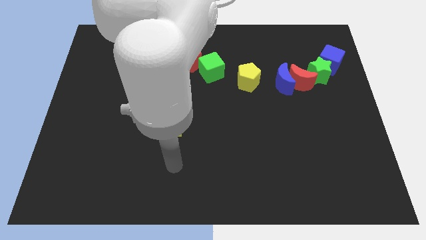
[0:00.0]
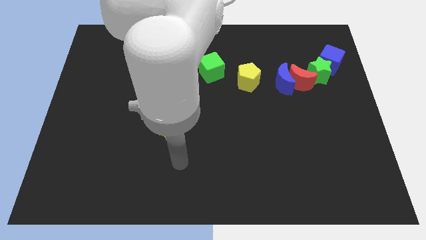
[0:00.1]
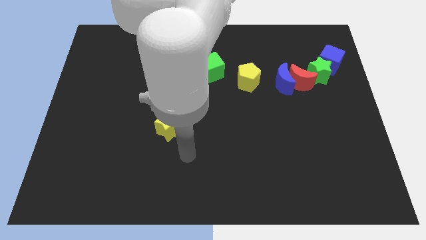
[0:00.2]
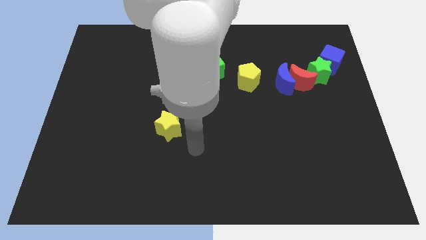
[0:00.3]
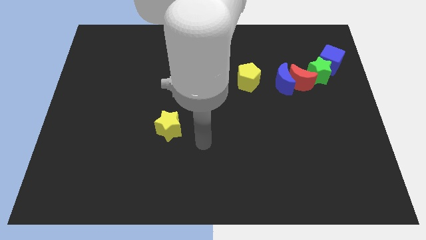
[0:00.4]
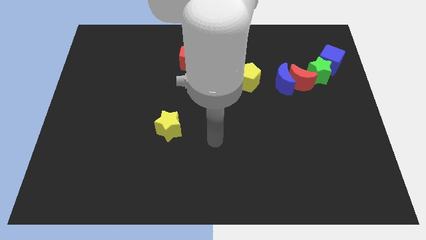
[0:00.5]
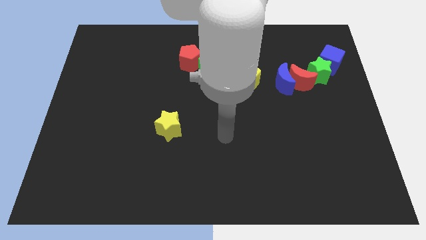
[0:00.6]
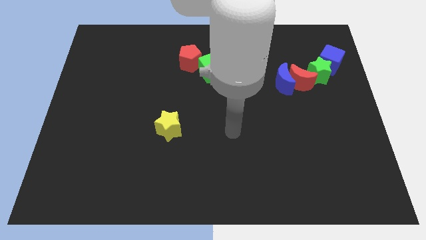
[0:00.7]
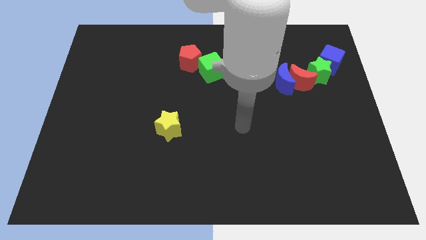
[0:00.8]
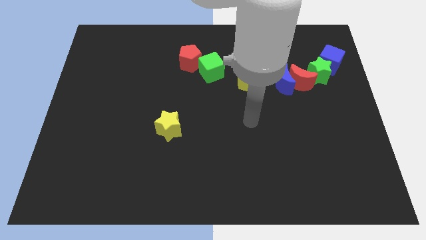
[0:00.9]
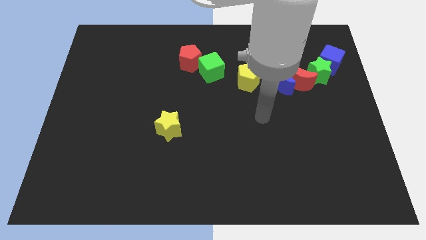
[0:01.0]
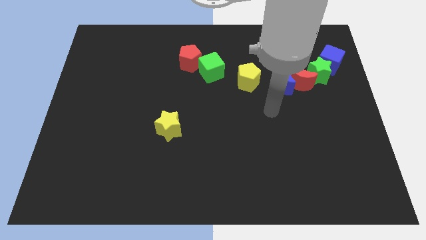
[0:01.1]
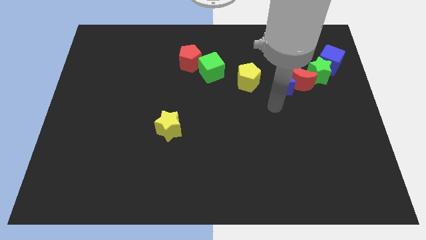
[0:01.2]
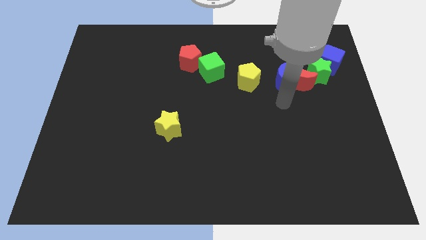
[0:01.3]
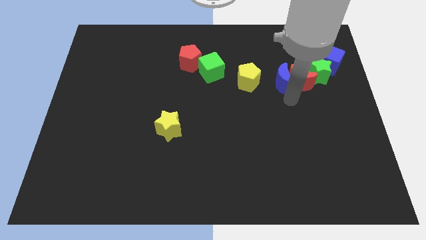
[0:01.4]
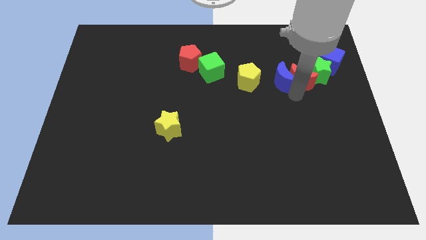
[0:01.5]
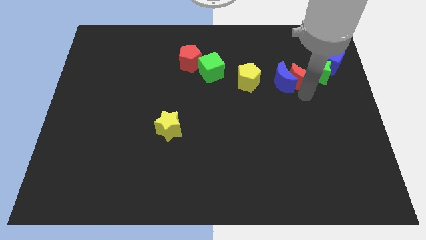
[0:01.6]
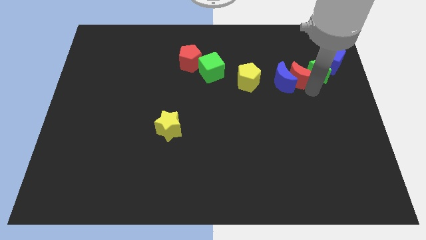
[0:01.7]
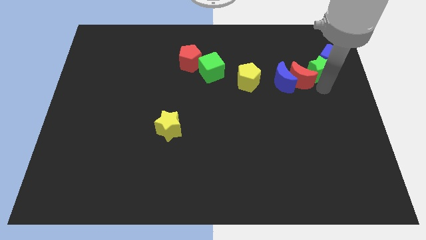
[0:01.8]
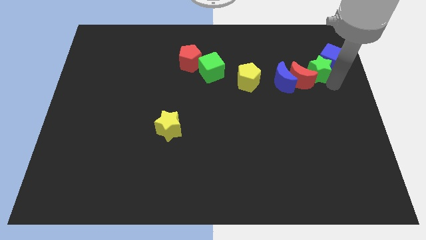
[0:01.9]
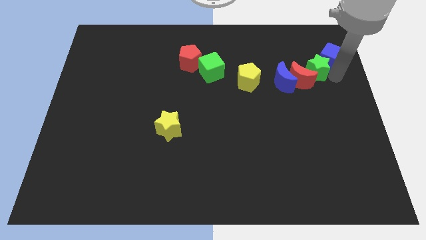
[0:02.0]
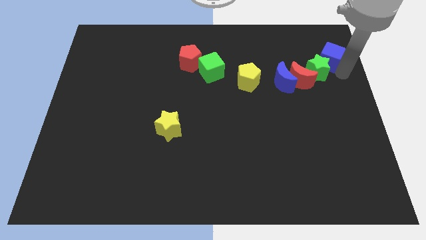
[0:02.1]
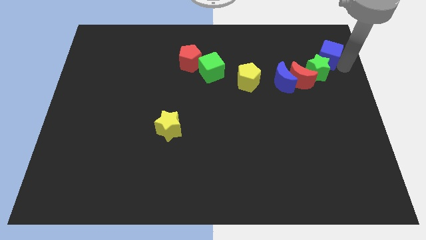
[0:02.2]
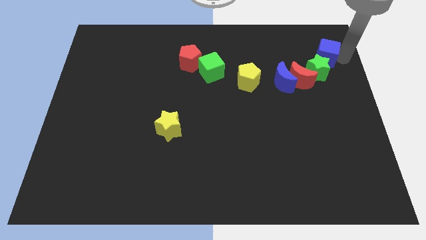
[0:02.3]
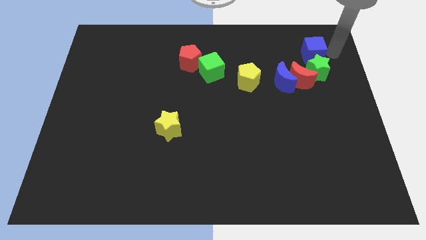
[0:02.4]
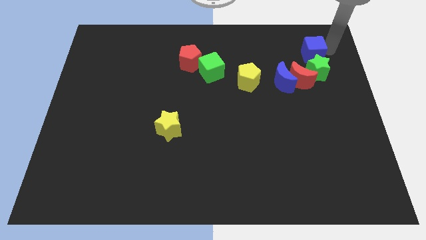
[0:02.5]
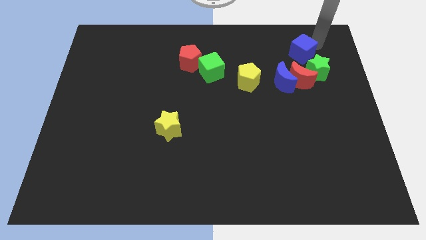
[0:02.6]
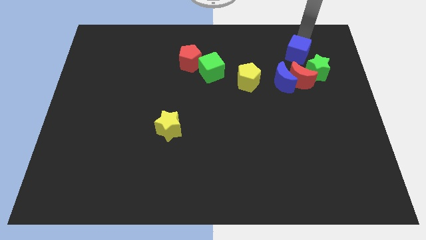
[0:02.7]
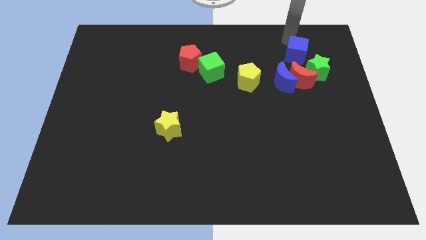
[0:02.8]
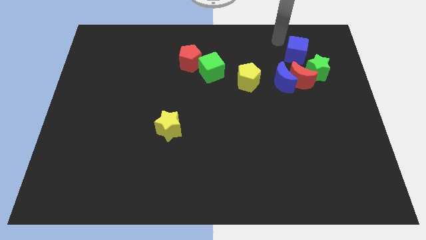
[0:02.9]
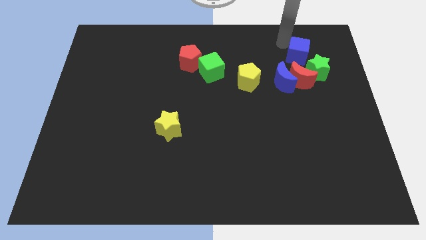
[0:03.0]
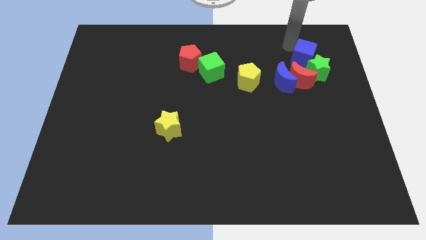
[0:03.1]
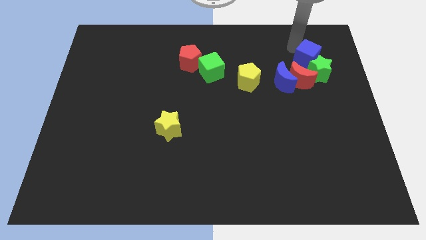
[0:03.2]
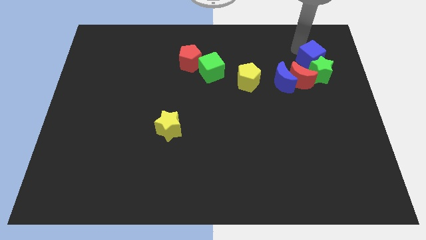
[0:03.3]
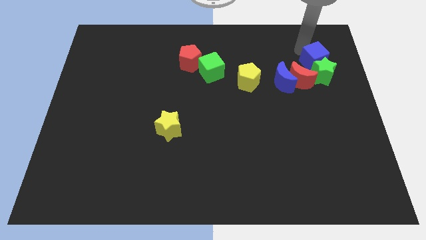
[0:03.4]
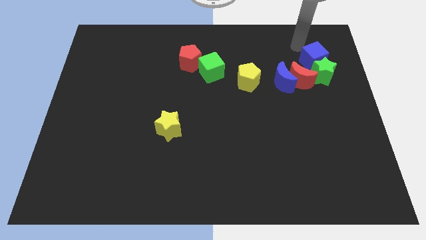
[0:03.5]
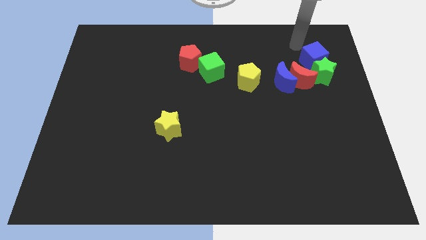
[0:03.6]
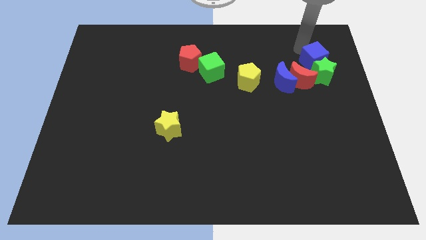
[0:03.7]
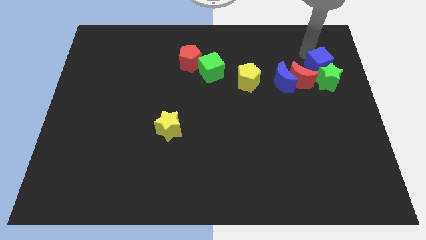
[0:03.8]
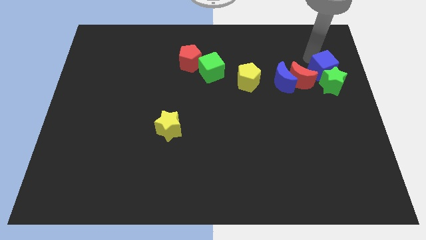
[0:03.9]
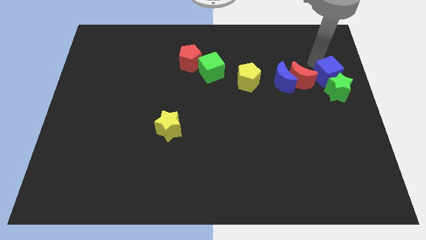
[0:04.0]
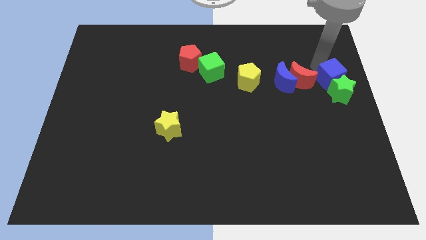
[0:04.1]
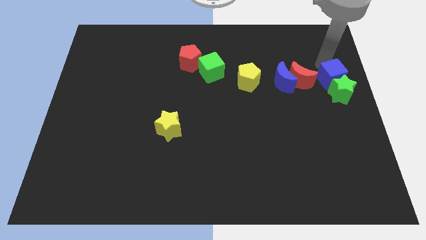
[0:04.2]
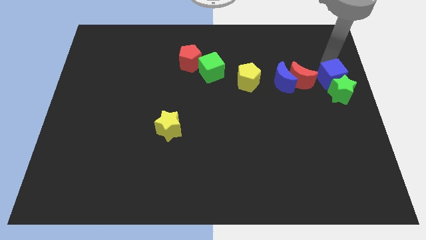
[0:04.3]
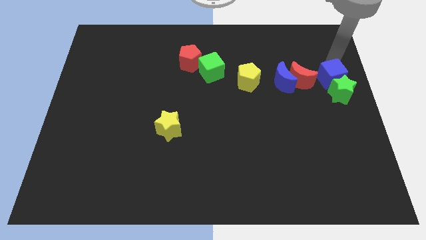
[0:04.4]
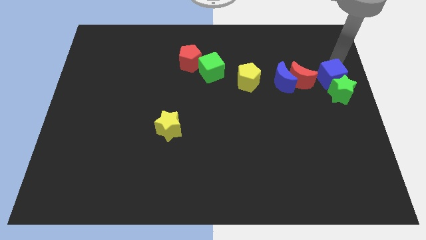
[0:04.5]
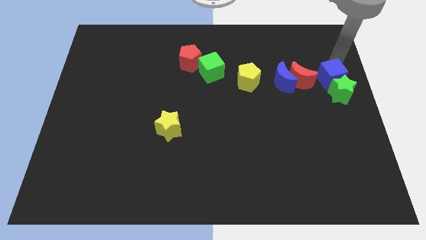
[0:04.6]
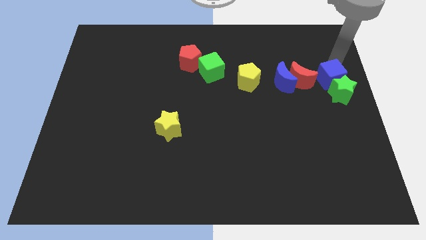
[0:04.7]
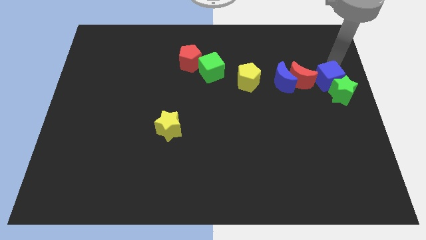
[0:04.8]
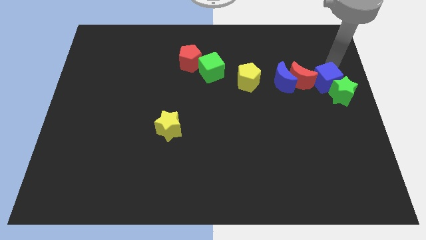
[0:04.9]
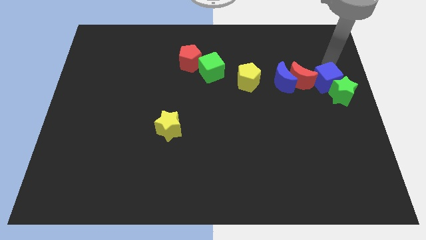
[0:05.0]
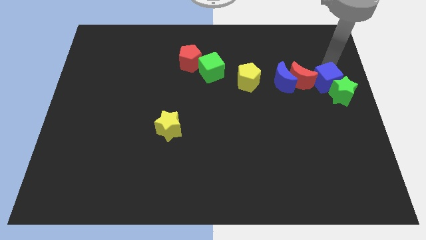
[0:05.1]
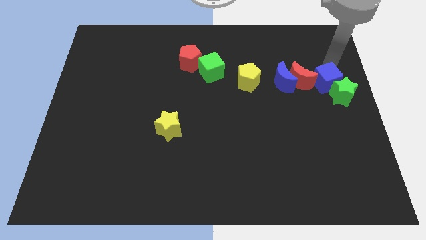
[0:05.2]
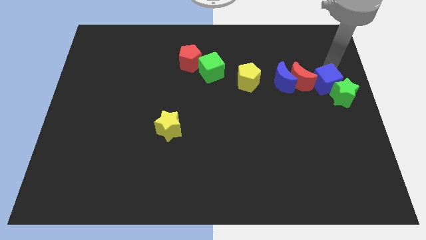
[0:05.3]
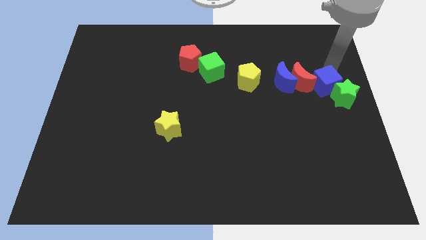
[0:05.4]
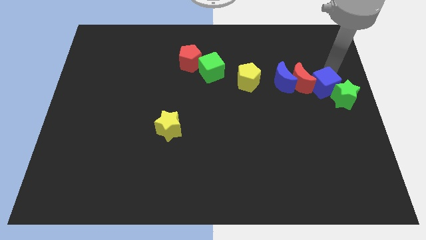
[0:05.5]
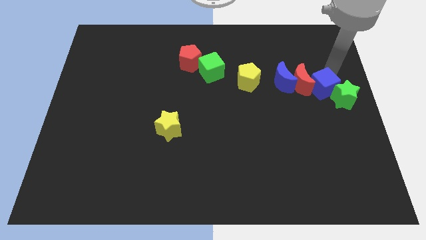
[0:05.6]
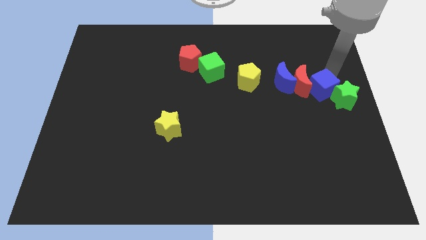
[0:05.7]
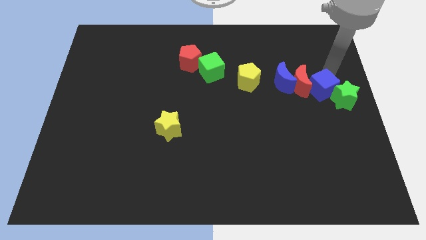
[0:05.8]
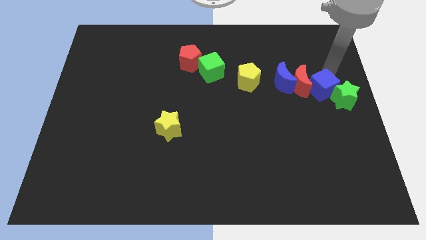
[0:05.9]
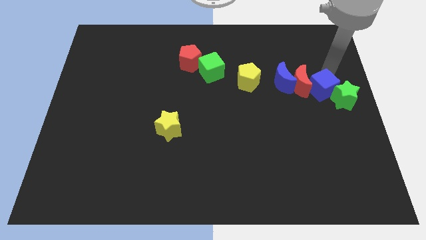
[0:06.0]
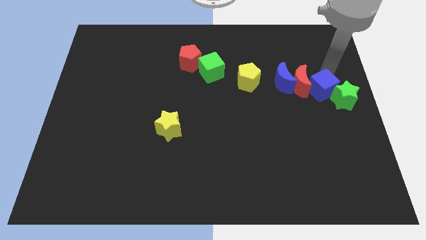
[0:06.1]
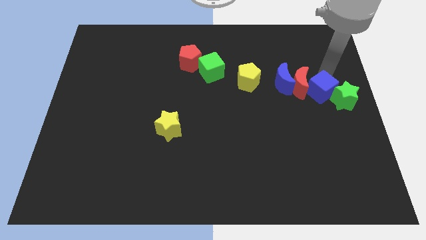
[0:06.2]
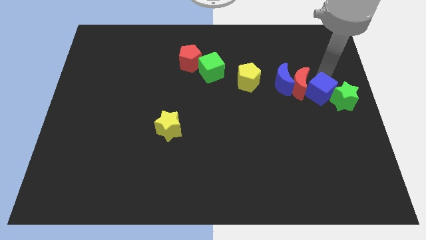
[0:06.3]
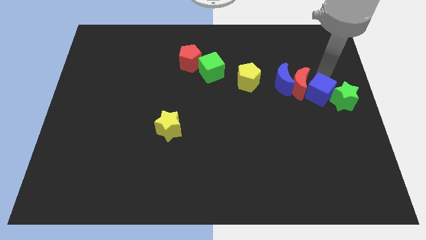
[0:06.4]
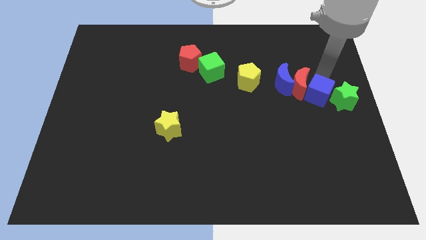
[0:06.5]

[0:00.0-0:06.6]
put the blue cube to the bottom side of the red moon
